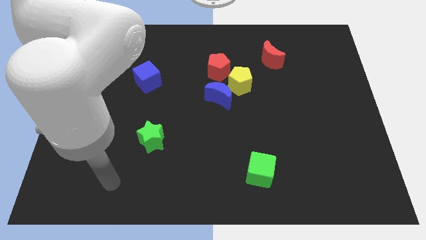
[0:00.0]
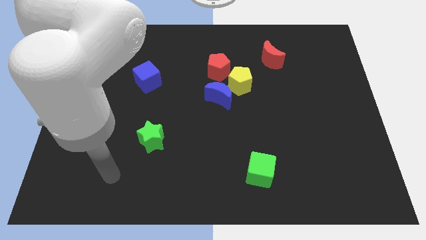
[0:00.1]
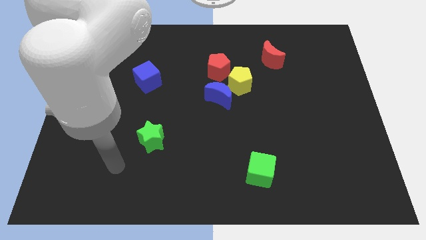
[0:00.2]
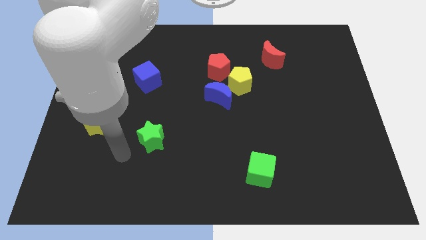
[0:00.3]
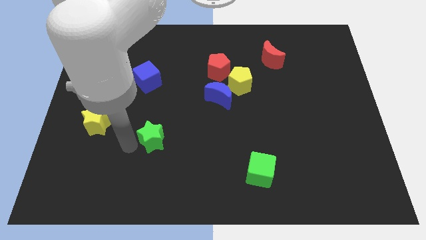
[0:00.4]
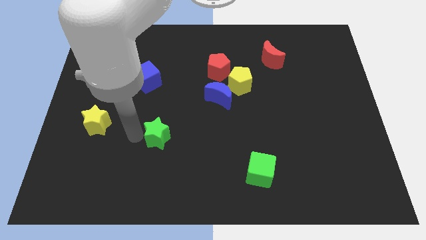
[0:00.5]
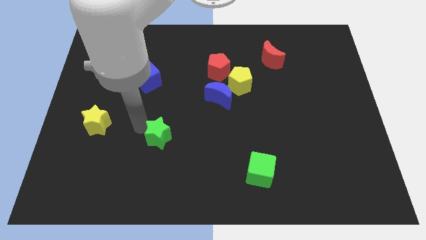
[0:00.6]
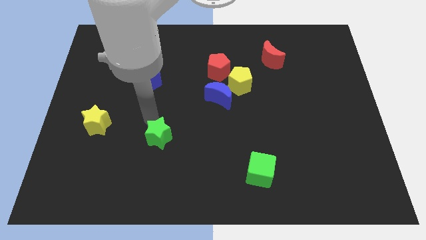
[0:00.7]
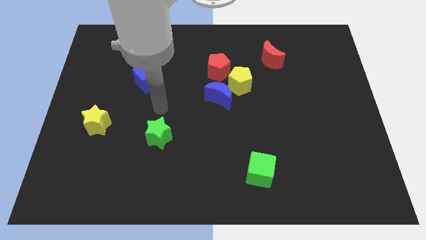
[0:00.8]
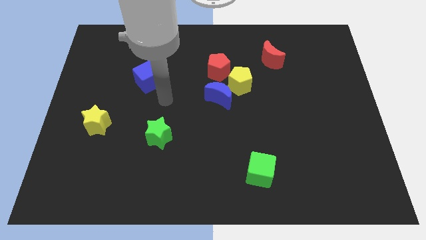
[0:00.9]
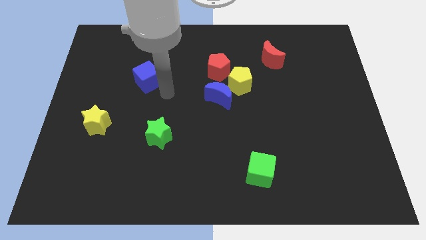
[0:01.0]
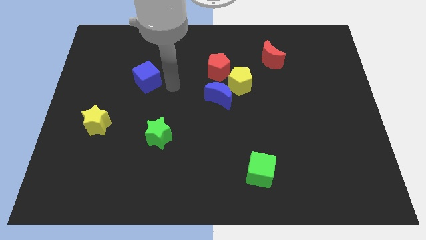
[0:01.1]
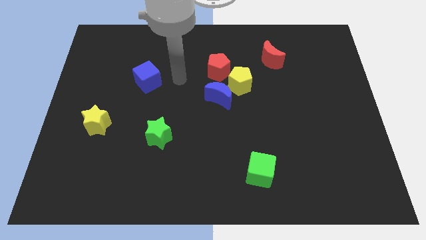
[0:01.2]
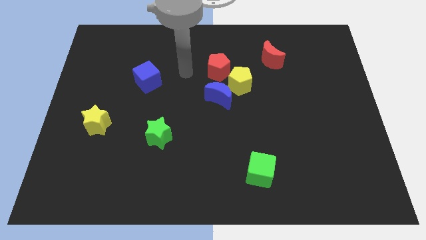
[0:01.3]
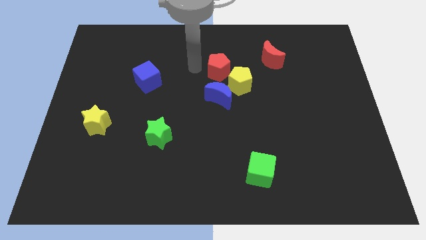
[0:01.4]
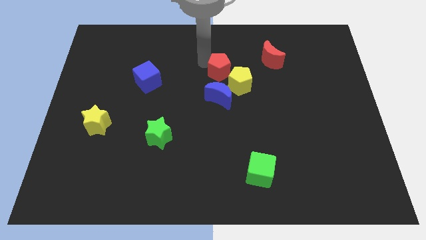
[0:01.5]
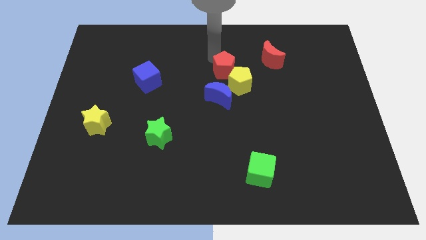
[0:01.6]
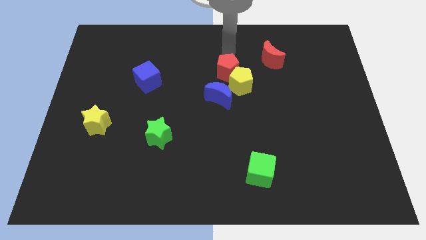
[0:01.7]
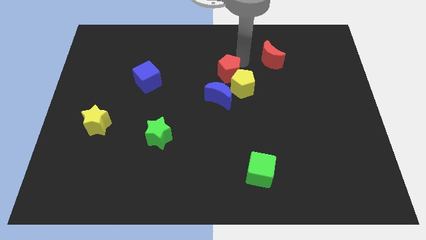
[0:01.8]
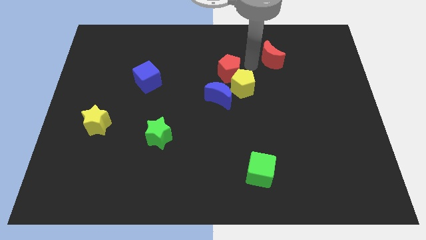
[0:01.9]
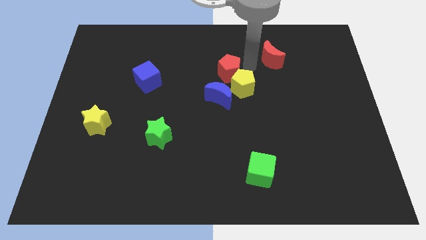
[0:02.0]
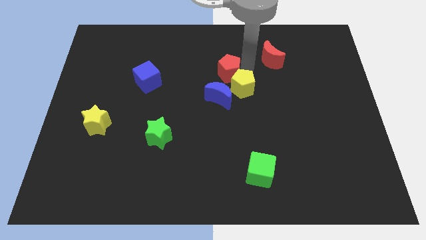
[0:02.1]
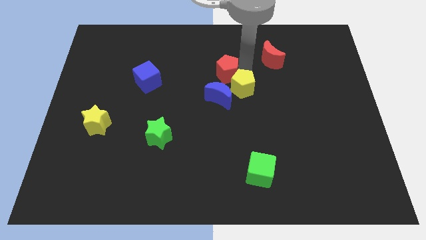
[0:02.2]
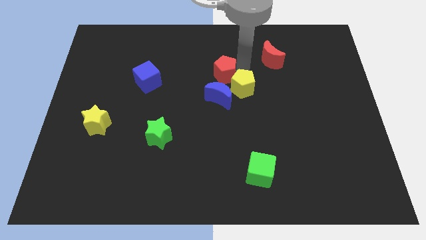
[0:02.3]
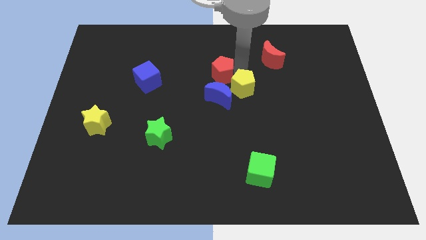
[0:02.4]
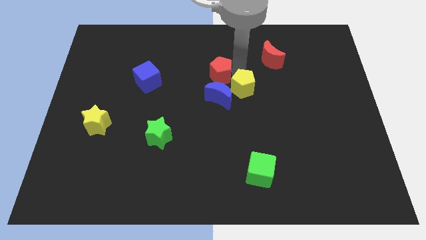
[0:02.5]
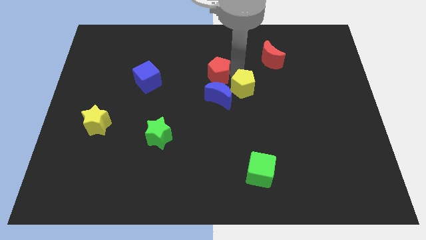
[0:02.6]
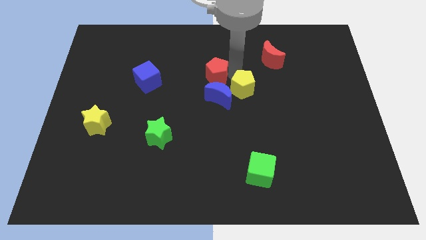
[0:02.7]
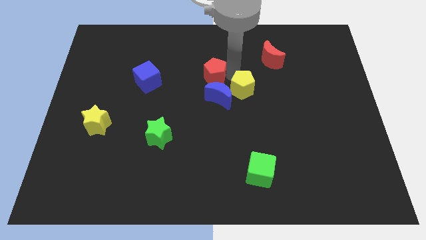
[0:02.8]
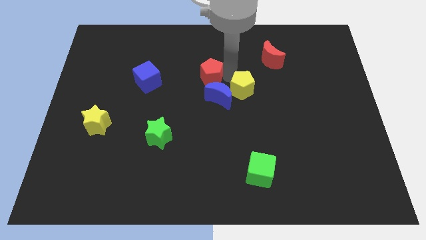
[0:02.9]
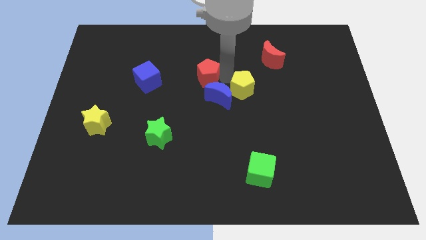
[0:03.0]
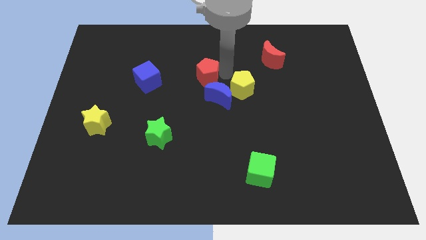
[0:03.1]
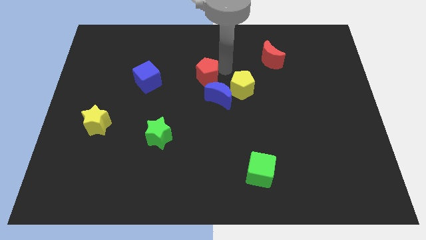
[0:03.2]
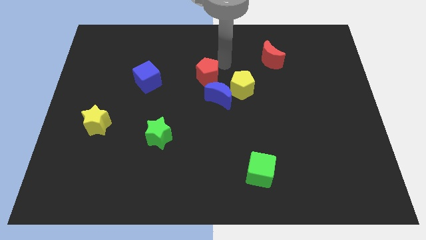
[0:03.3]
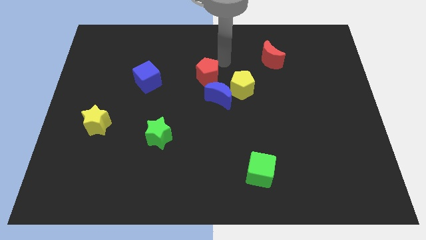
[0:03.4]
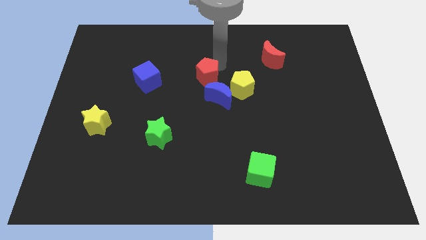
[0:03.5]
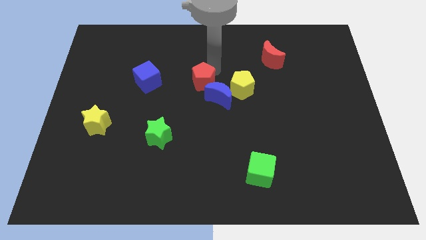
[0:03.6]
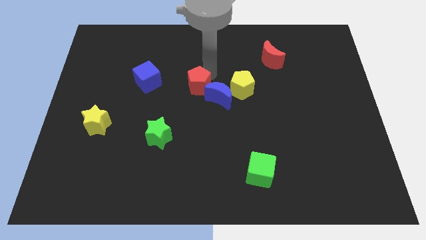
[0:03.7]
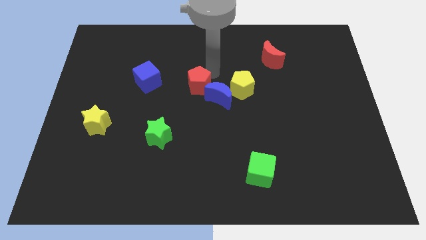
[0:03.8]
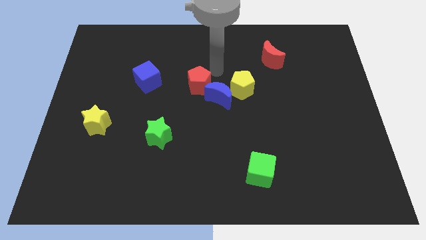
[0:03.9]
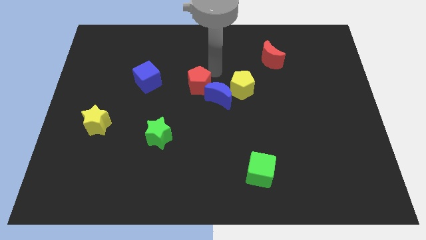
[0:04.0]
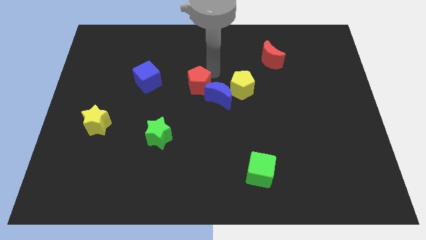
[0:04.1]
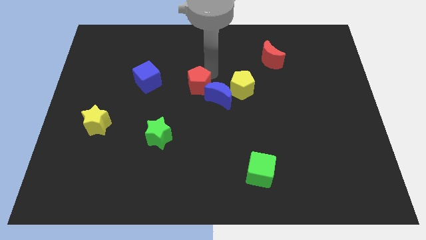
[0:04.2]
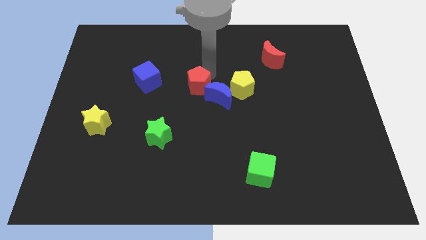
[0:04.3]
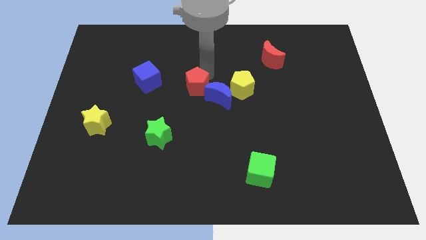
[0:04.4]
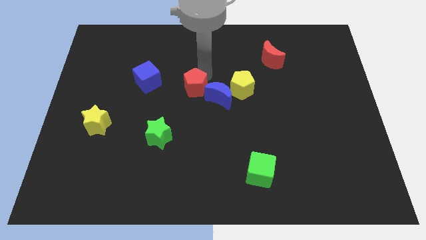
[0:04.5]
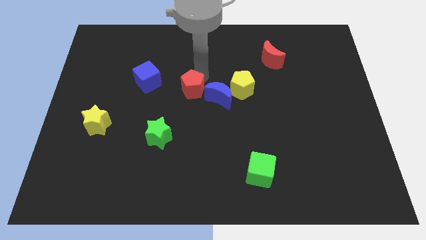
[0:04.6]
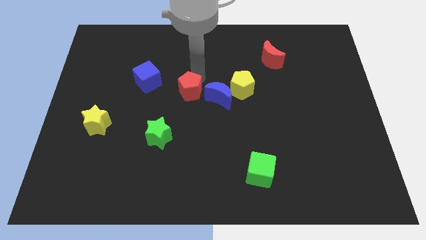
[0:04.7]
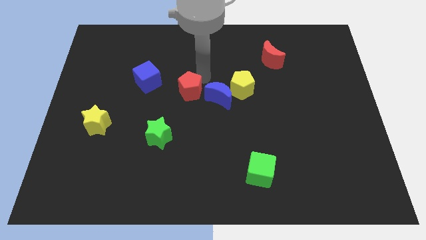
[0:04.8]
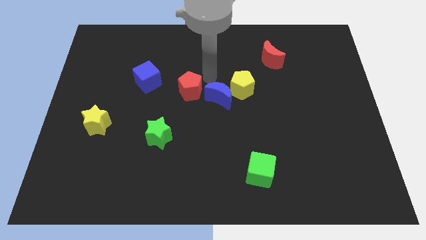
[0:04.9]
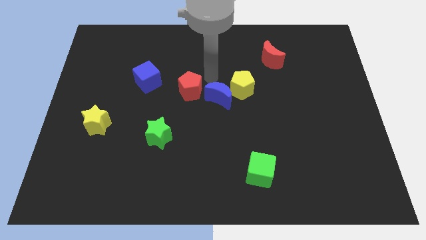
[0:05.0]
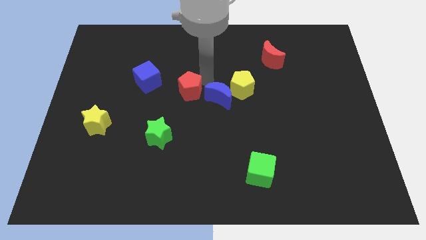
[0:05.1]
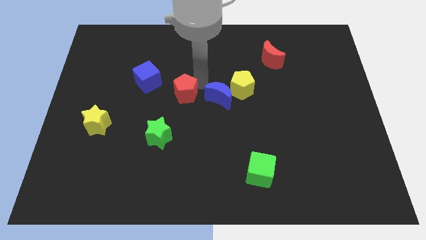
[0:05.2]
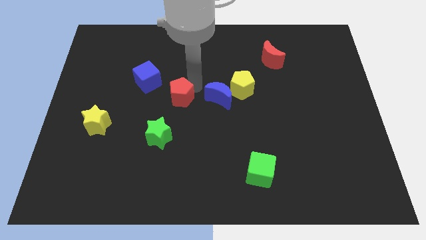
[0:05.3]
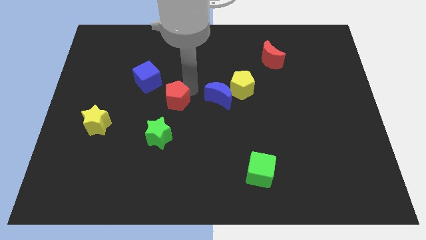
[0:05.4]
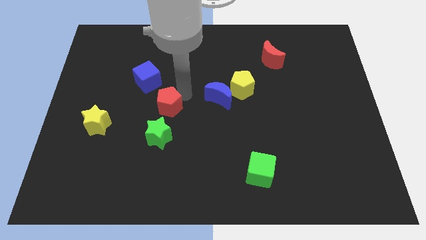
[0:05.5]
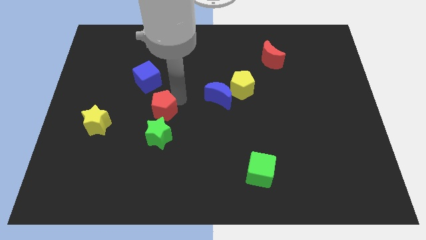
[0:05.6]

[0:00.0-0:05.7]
push the red pentagon below the blue cube

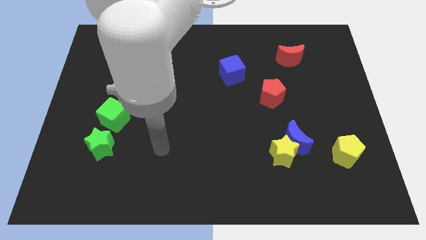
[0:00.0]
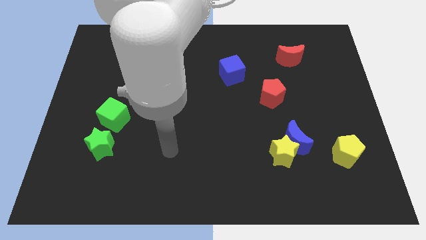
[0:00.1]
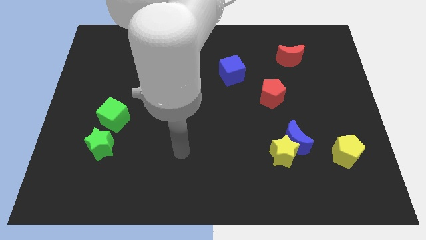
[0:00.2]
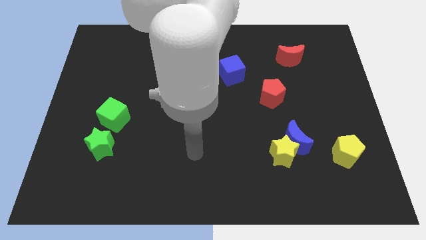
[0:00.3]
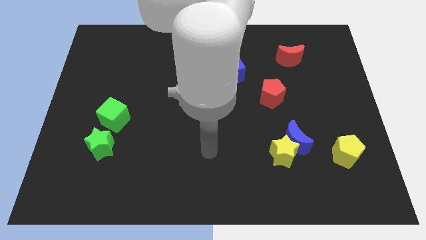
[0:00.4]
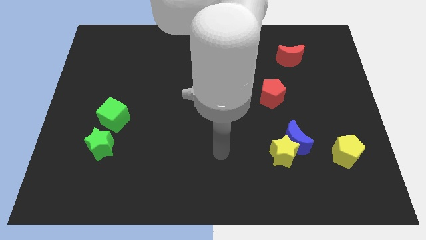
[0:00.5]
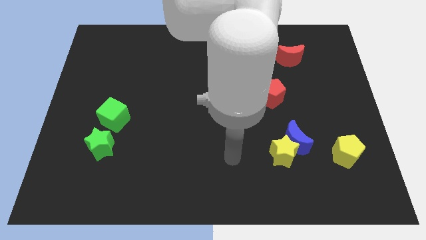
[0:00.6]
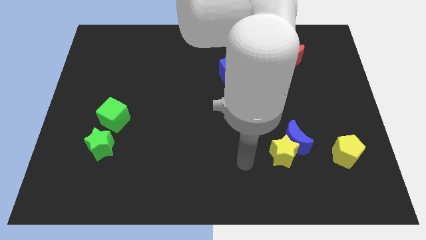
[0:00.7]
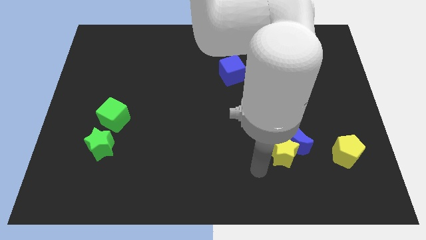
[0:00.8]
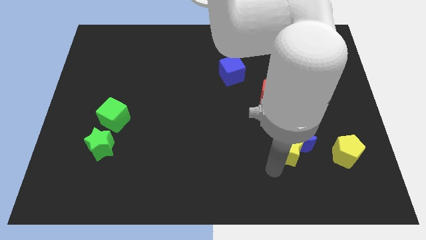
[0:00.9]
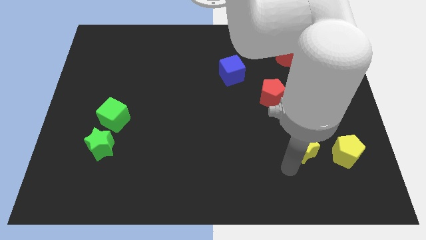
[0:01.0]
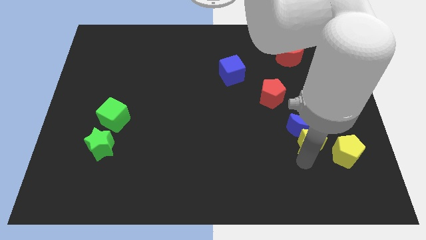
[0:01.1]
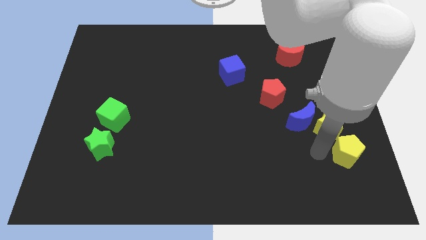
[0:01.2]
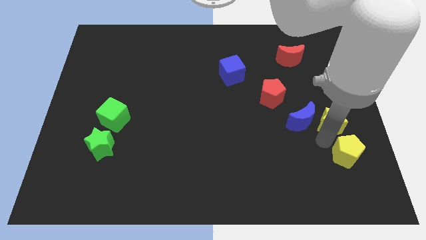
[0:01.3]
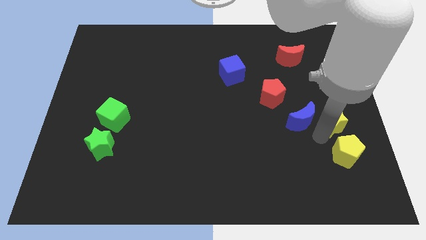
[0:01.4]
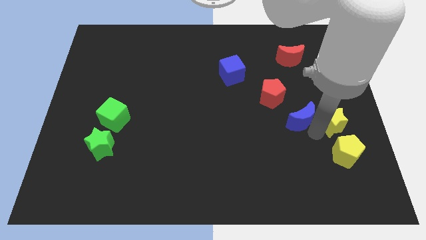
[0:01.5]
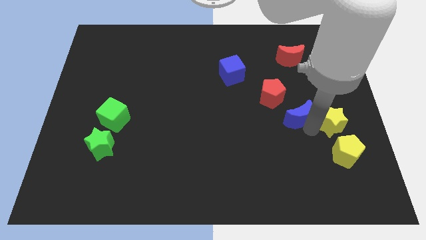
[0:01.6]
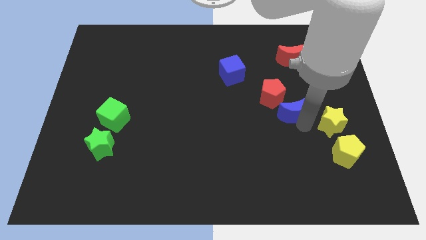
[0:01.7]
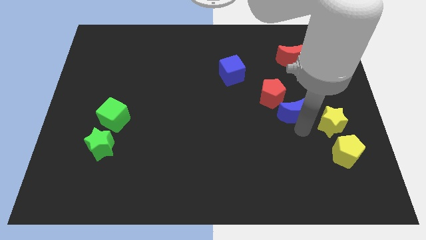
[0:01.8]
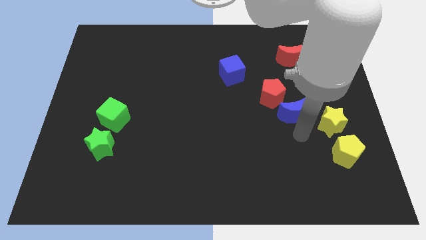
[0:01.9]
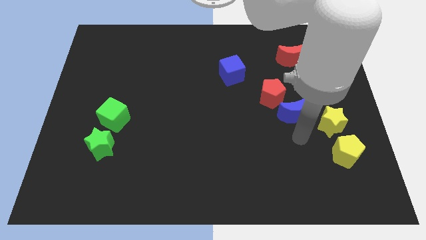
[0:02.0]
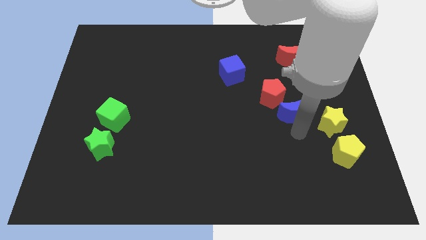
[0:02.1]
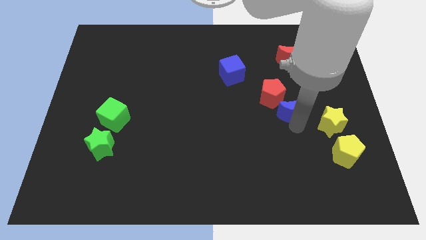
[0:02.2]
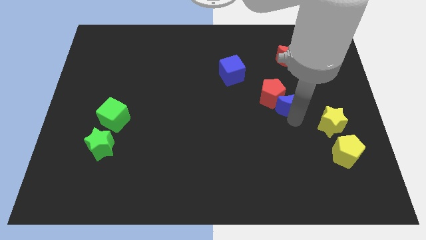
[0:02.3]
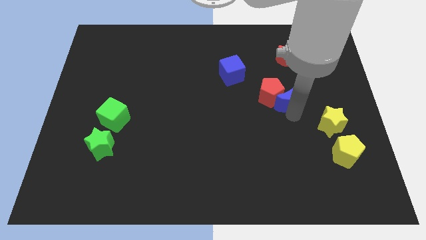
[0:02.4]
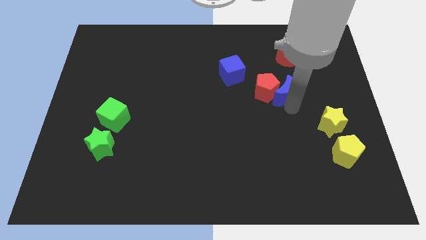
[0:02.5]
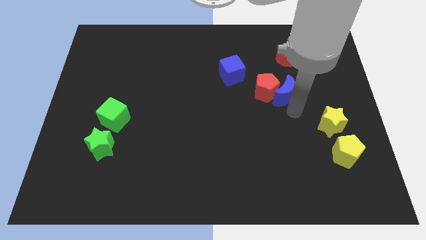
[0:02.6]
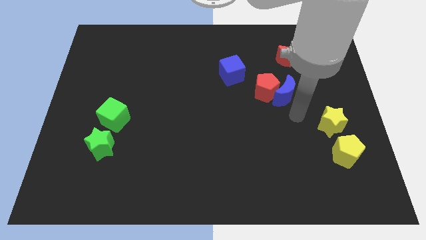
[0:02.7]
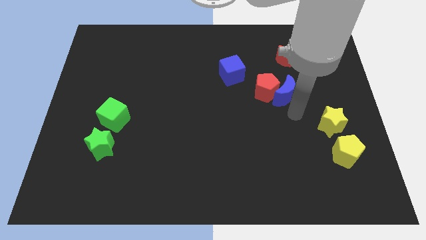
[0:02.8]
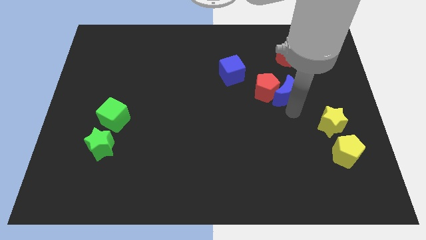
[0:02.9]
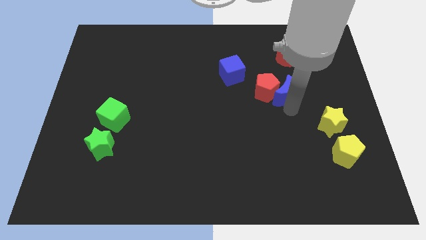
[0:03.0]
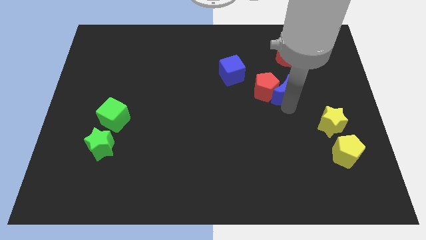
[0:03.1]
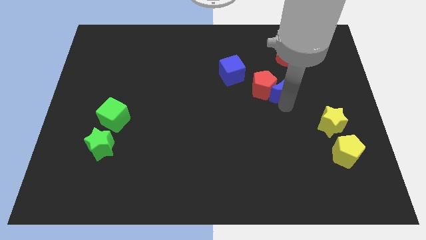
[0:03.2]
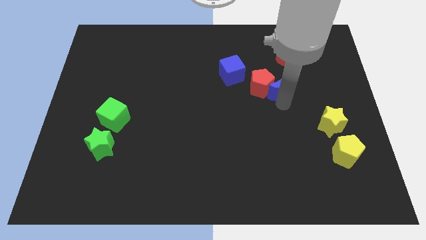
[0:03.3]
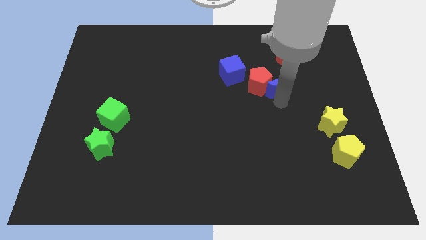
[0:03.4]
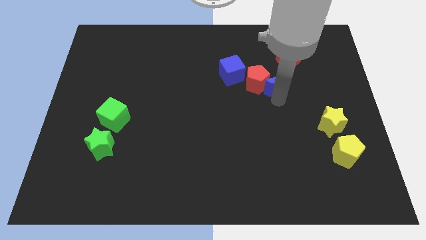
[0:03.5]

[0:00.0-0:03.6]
push the blue moon to the right of the blue cube
